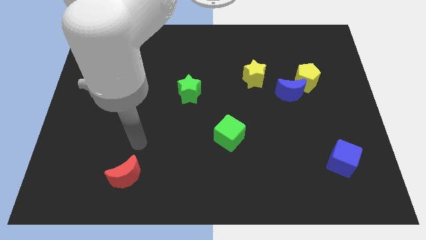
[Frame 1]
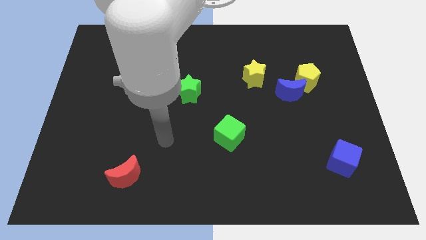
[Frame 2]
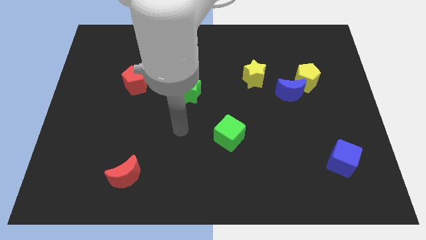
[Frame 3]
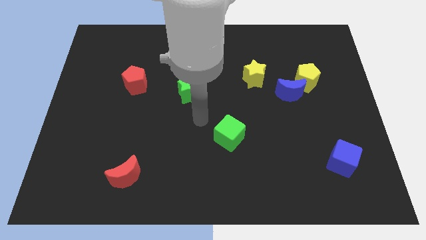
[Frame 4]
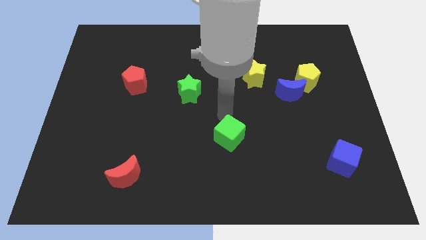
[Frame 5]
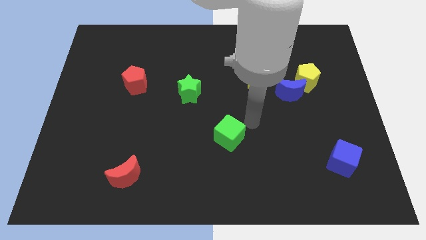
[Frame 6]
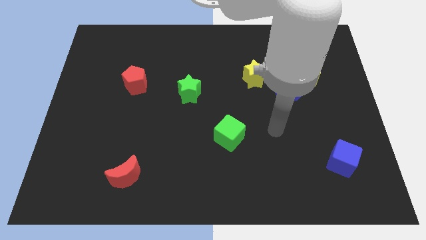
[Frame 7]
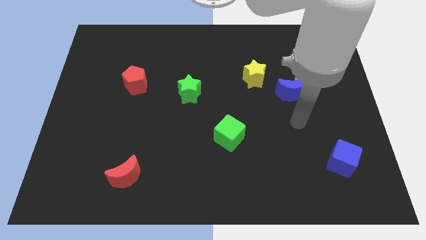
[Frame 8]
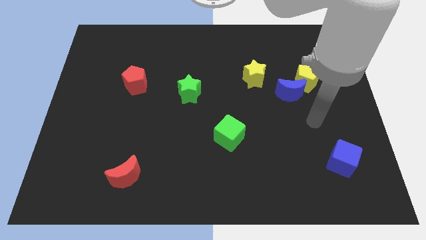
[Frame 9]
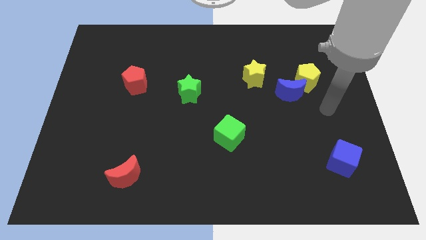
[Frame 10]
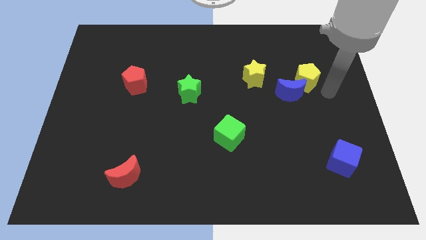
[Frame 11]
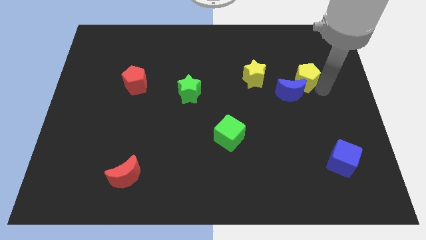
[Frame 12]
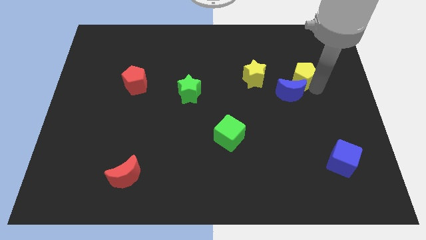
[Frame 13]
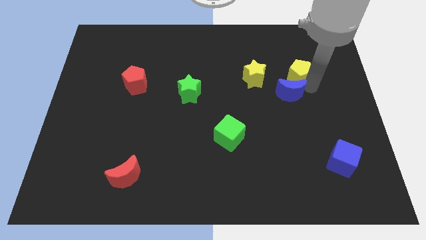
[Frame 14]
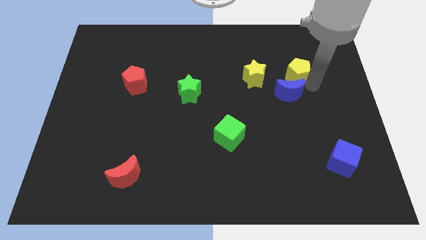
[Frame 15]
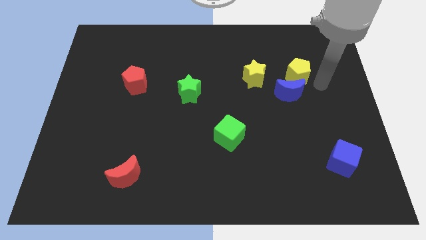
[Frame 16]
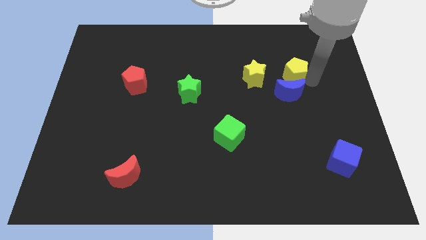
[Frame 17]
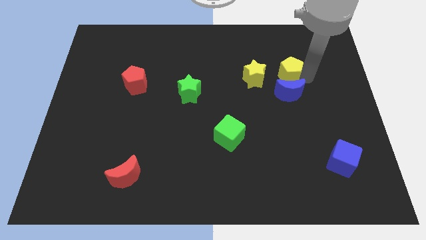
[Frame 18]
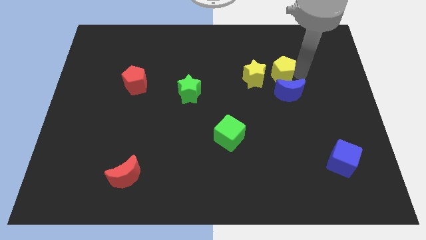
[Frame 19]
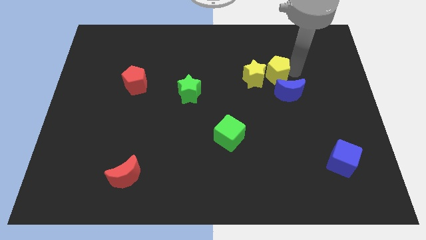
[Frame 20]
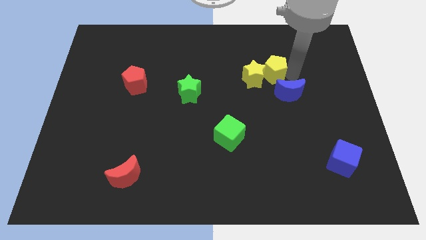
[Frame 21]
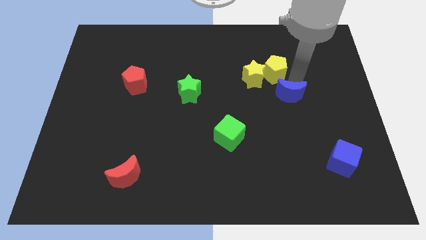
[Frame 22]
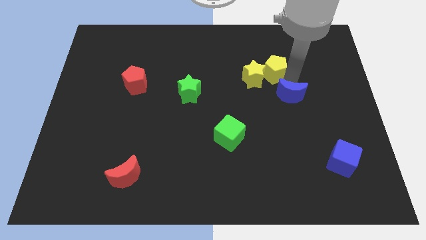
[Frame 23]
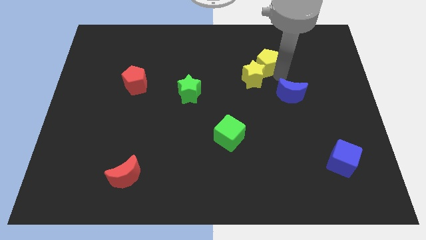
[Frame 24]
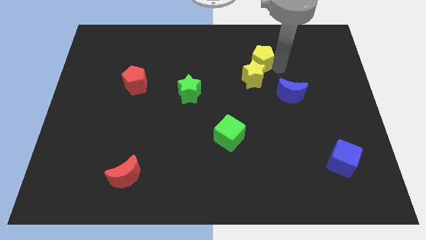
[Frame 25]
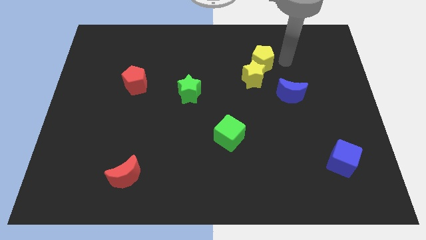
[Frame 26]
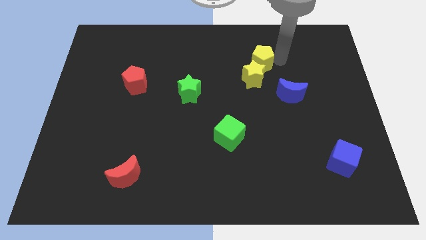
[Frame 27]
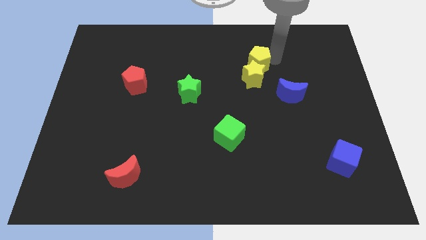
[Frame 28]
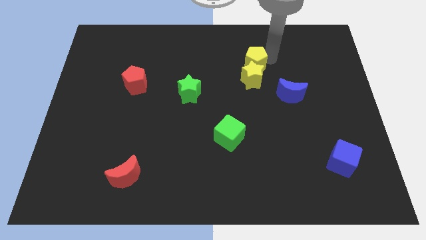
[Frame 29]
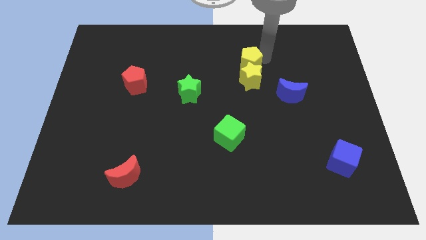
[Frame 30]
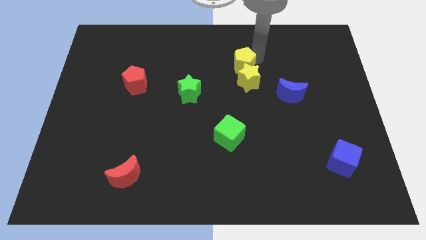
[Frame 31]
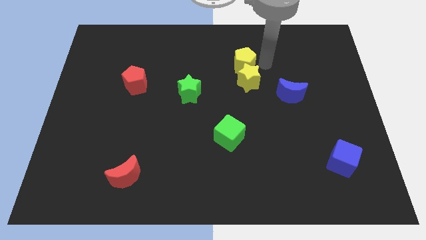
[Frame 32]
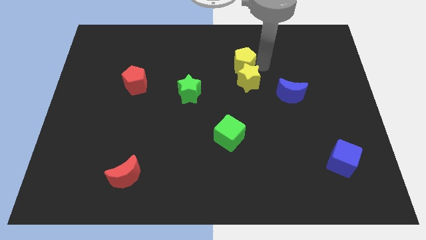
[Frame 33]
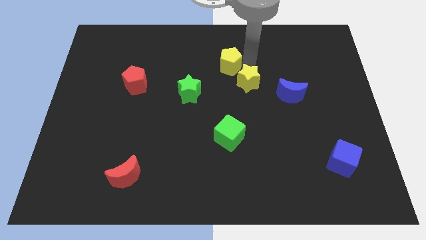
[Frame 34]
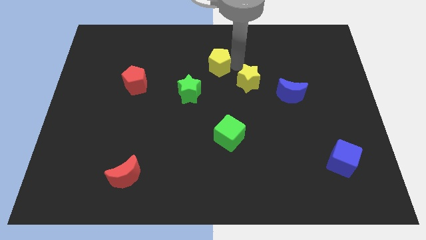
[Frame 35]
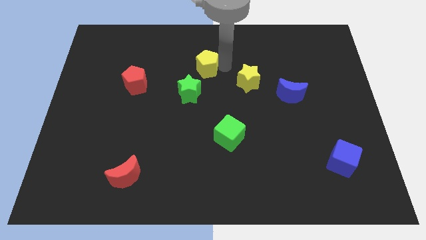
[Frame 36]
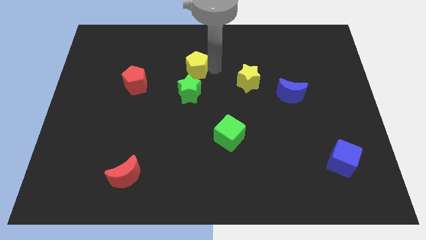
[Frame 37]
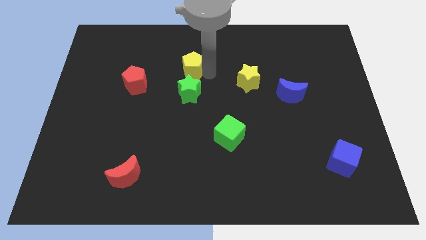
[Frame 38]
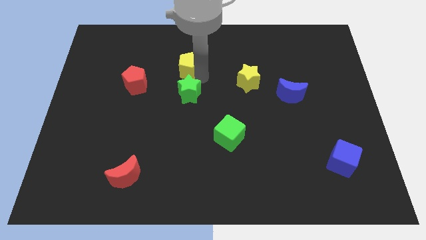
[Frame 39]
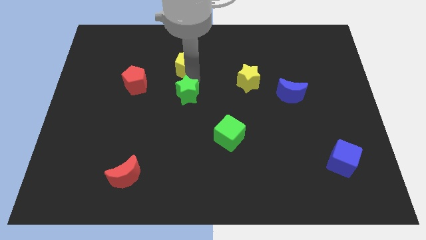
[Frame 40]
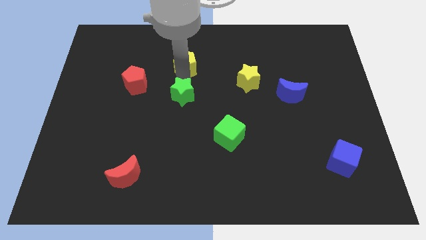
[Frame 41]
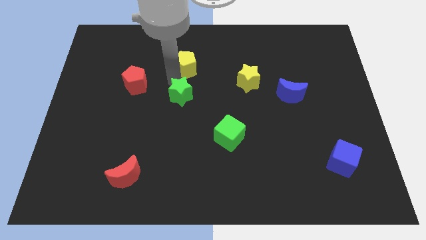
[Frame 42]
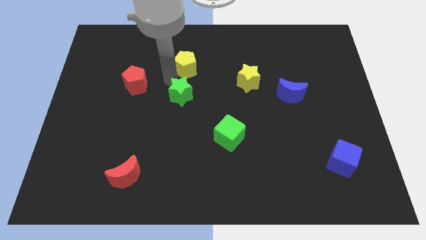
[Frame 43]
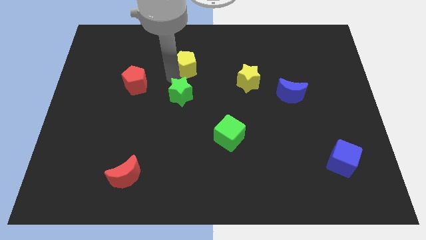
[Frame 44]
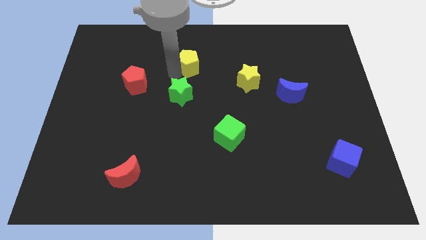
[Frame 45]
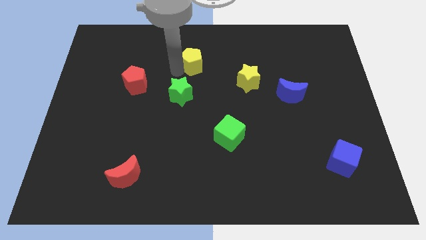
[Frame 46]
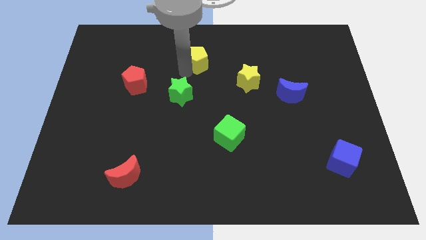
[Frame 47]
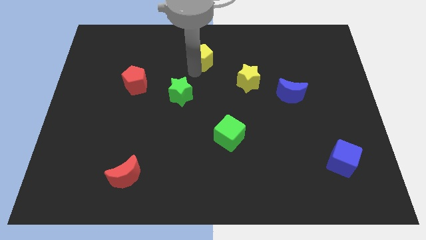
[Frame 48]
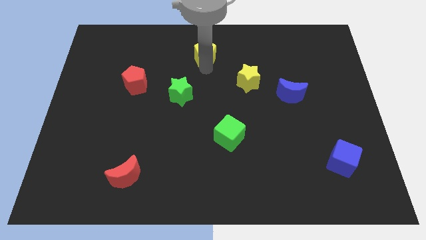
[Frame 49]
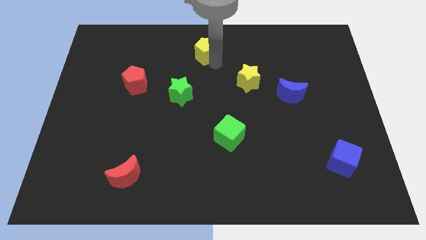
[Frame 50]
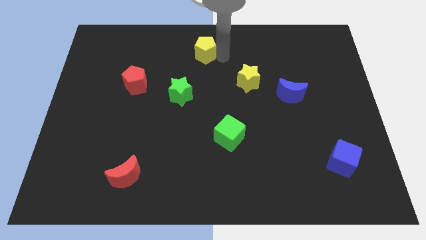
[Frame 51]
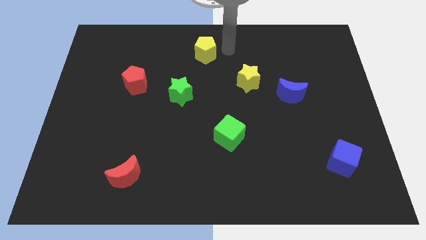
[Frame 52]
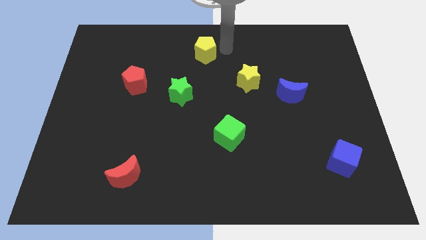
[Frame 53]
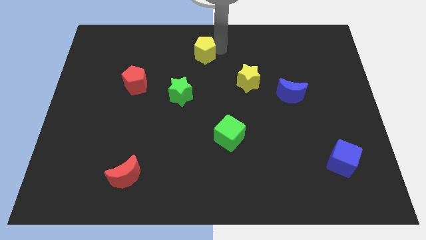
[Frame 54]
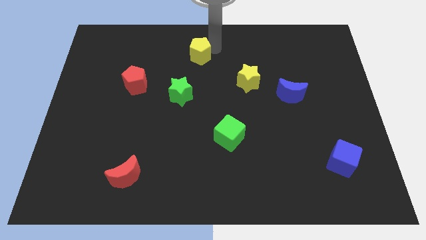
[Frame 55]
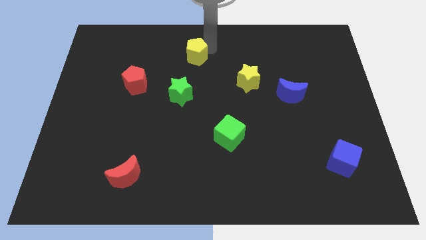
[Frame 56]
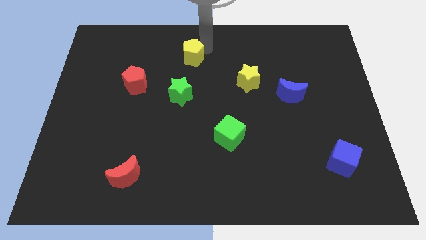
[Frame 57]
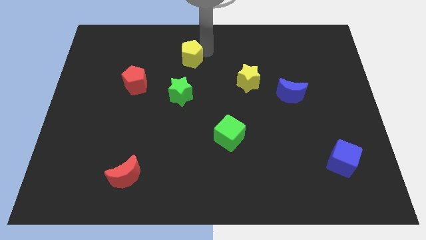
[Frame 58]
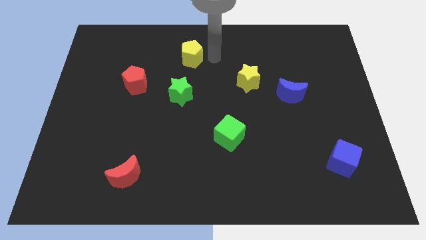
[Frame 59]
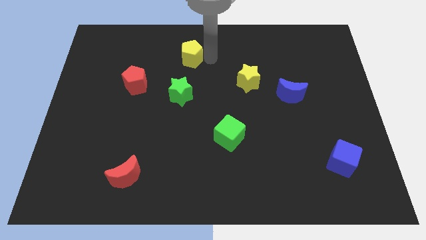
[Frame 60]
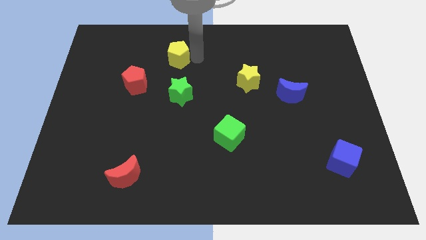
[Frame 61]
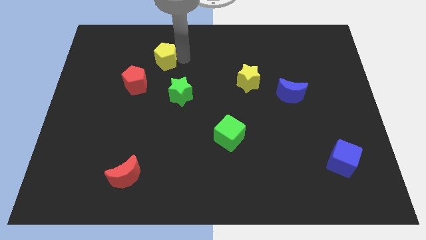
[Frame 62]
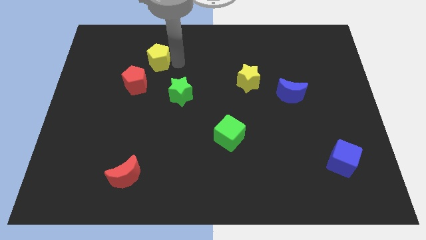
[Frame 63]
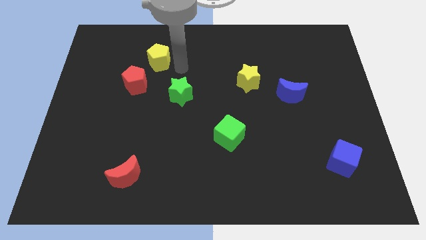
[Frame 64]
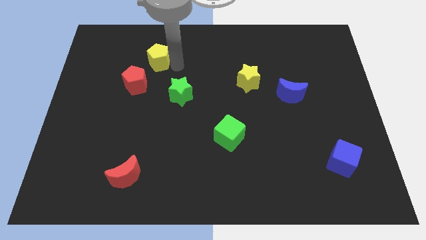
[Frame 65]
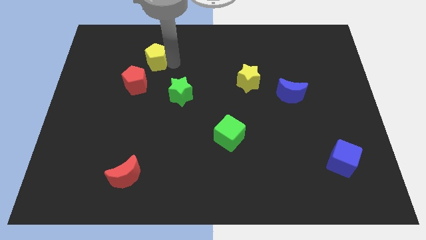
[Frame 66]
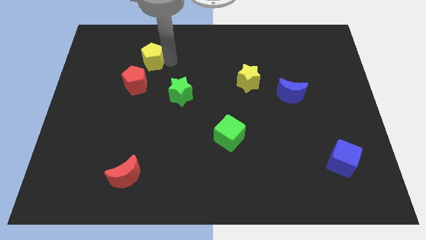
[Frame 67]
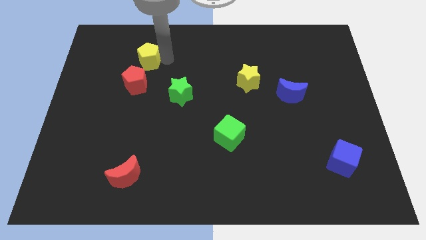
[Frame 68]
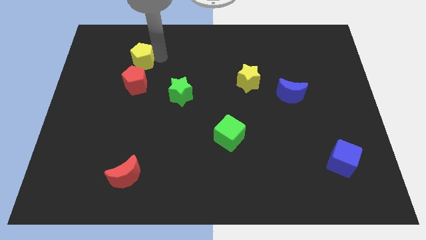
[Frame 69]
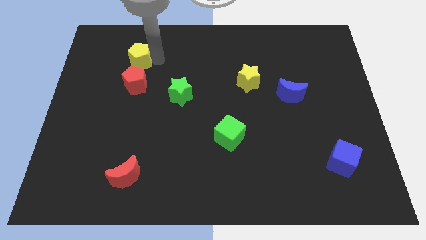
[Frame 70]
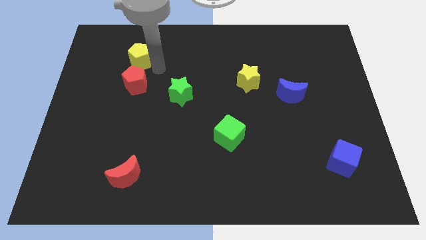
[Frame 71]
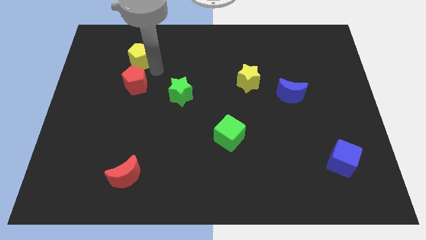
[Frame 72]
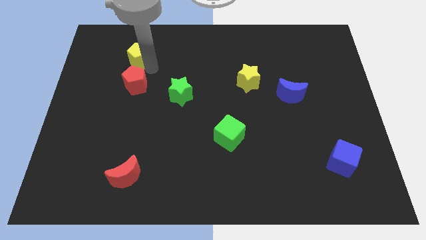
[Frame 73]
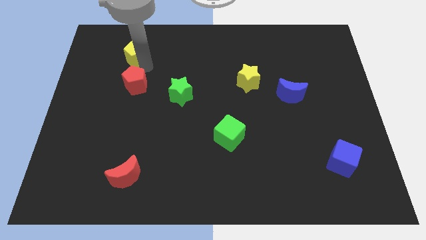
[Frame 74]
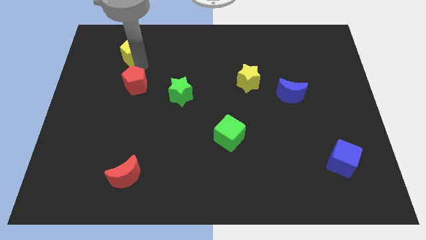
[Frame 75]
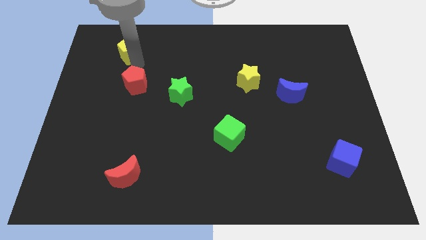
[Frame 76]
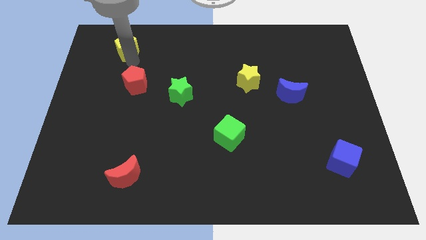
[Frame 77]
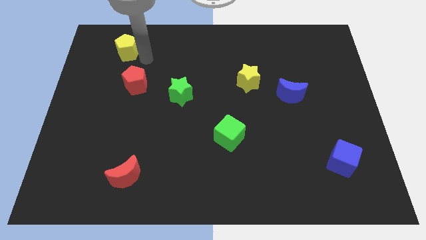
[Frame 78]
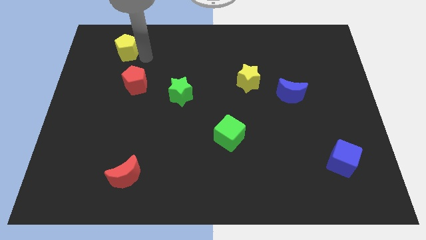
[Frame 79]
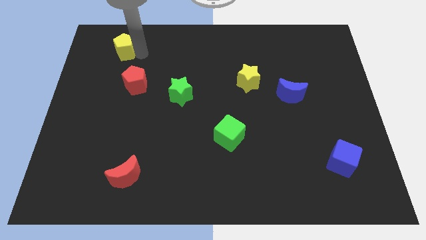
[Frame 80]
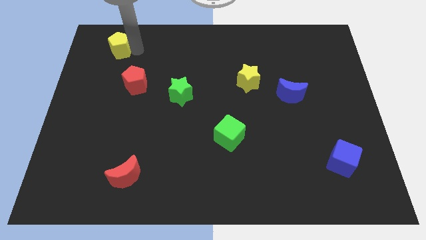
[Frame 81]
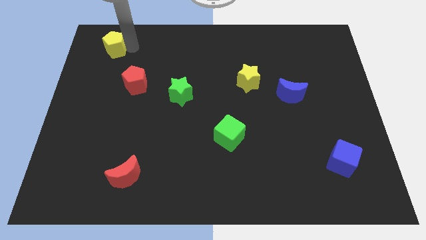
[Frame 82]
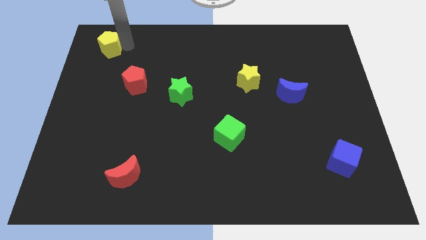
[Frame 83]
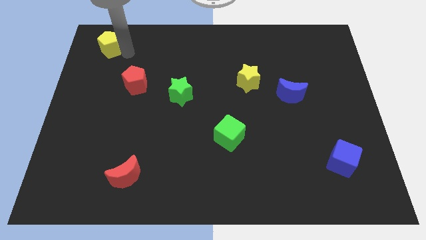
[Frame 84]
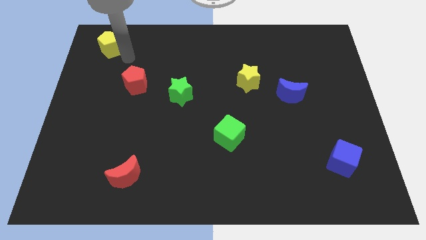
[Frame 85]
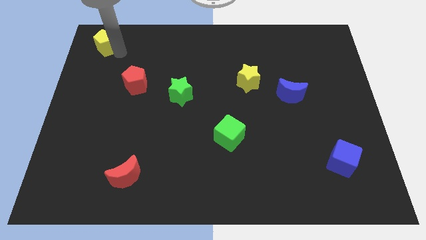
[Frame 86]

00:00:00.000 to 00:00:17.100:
put the yellow pentagon to the top left
